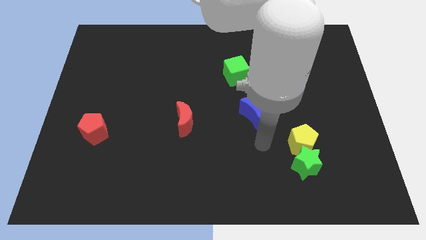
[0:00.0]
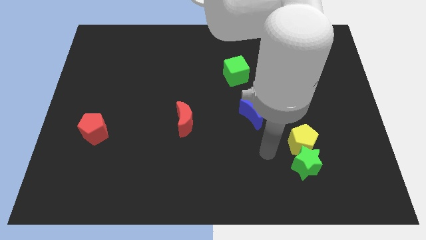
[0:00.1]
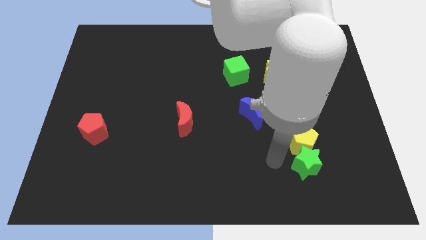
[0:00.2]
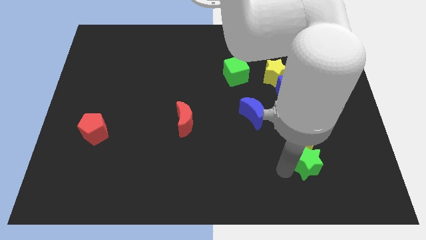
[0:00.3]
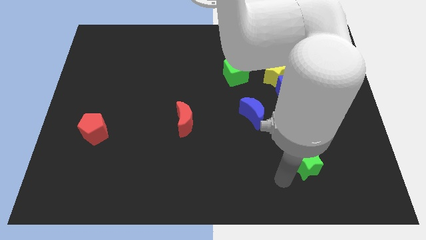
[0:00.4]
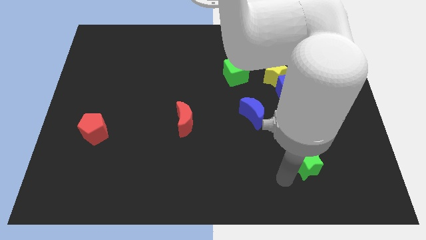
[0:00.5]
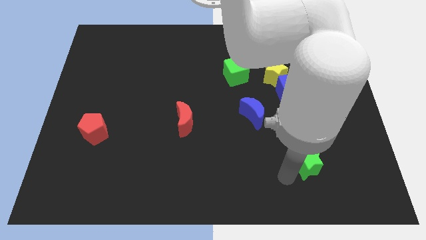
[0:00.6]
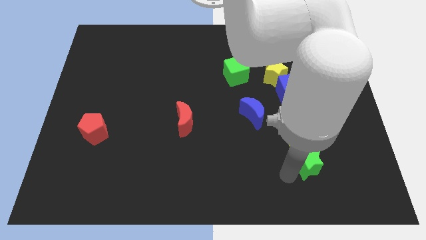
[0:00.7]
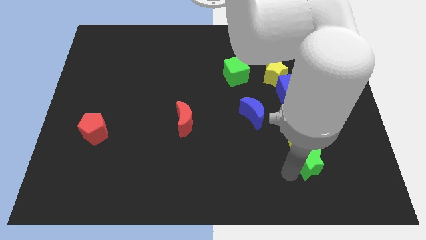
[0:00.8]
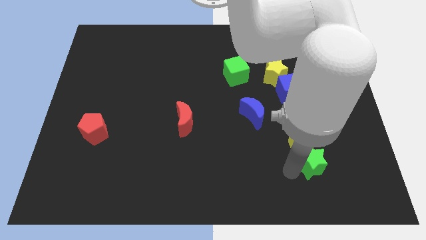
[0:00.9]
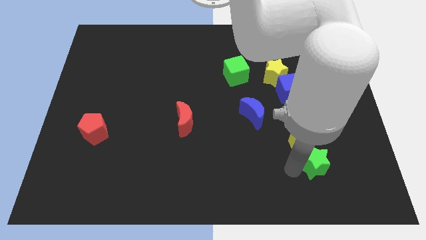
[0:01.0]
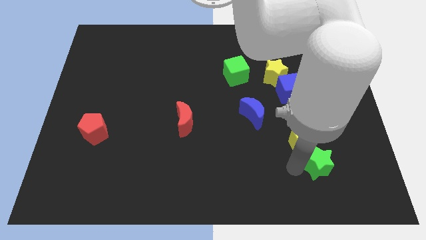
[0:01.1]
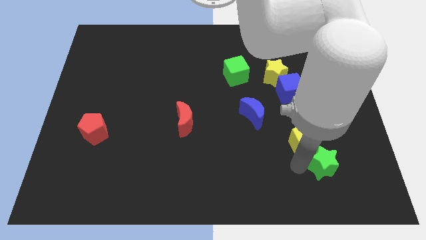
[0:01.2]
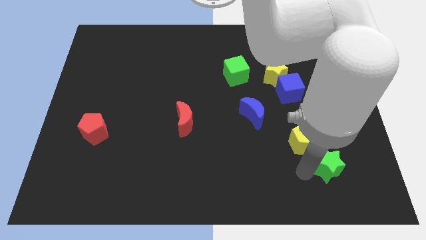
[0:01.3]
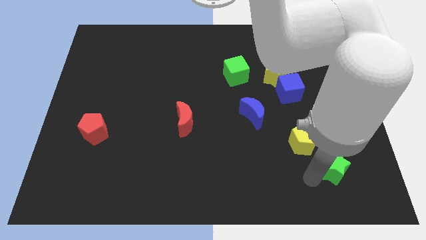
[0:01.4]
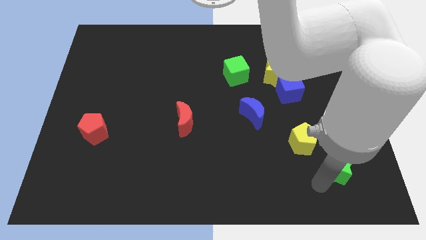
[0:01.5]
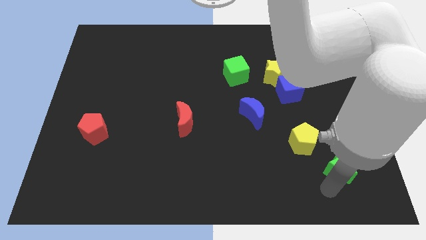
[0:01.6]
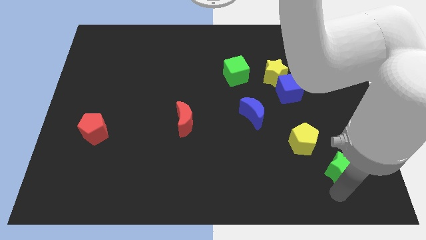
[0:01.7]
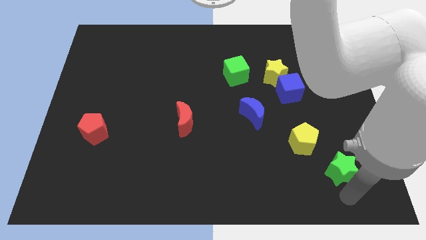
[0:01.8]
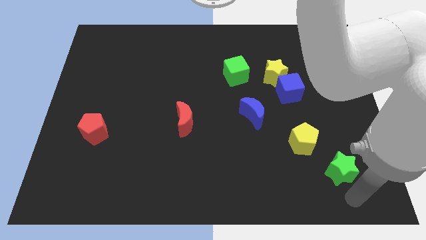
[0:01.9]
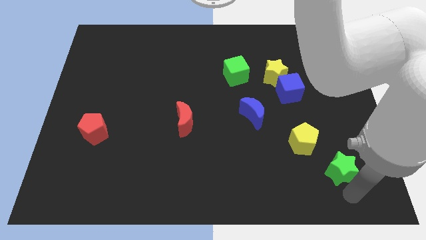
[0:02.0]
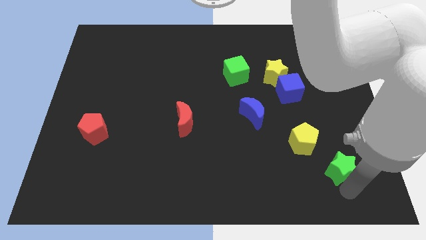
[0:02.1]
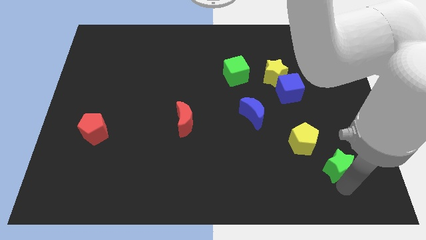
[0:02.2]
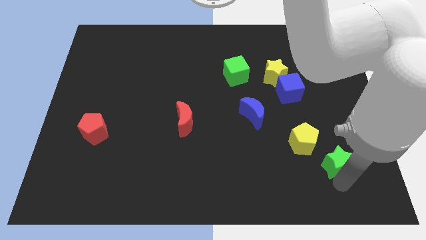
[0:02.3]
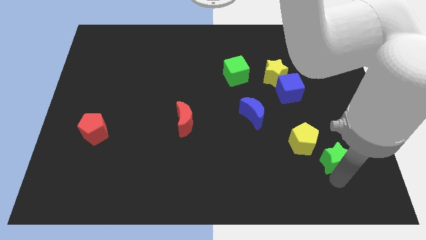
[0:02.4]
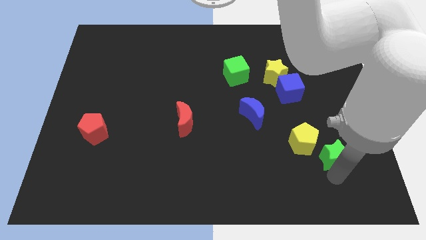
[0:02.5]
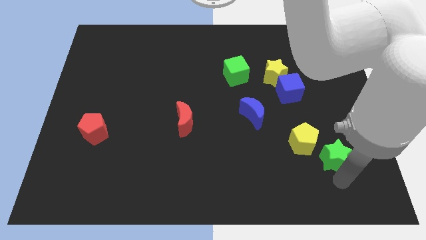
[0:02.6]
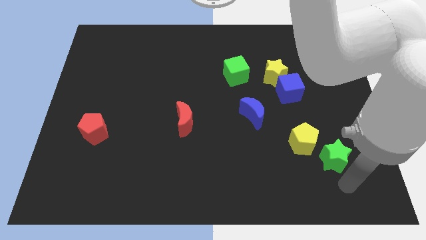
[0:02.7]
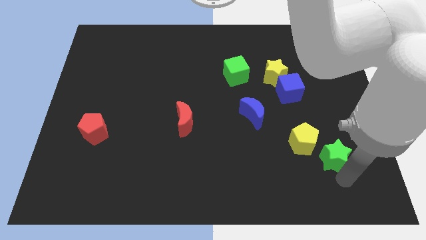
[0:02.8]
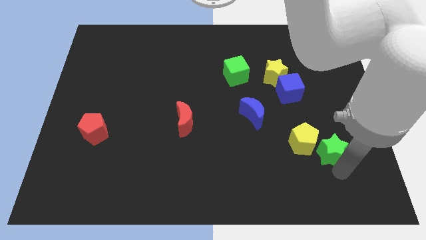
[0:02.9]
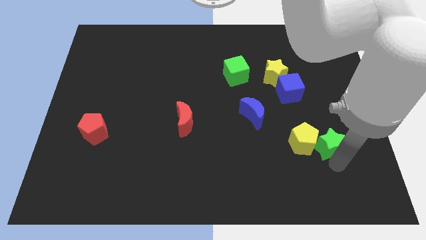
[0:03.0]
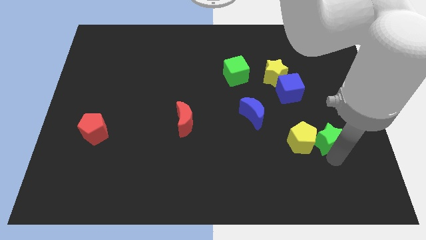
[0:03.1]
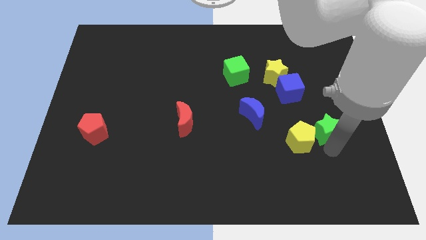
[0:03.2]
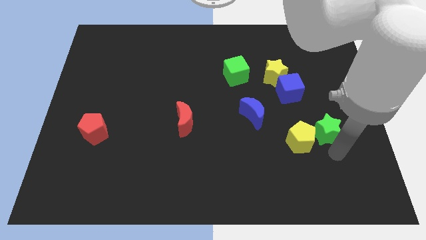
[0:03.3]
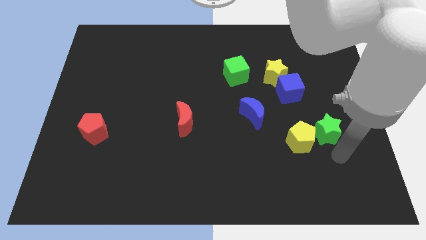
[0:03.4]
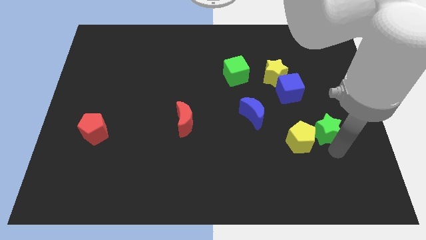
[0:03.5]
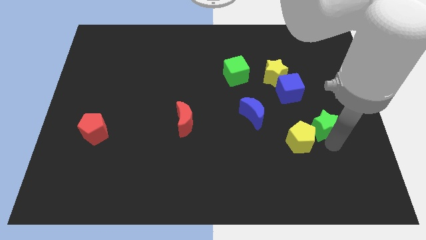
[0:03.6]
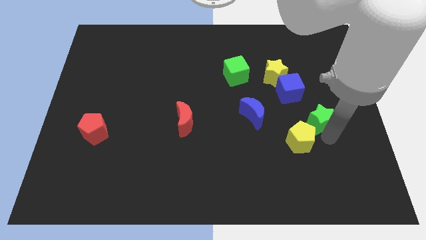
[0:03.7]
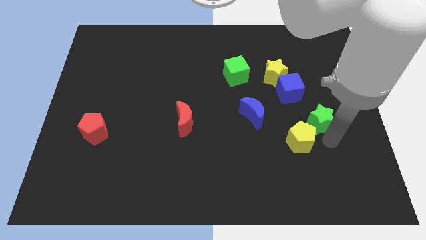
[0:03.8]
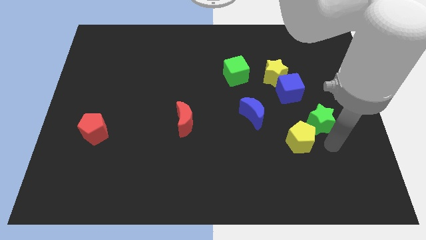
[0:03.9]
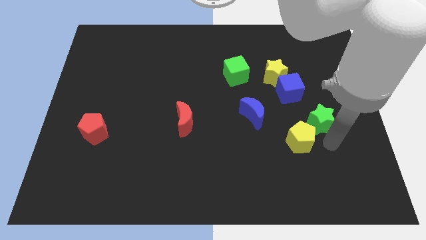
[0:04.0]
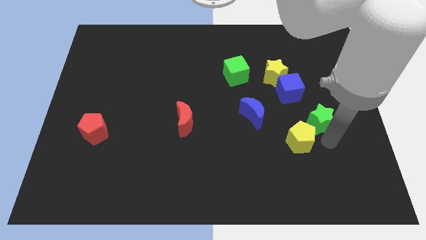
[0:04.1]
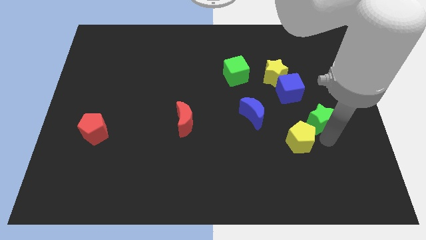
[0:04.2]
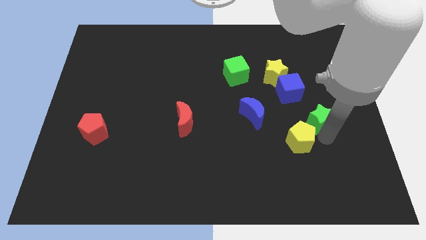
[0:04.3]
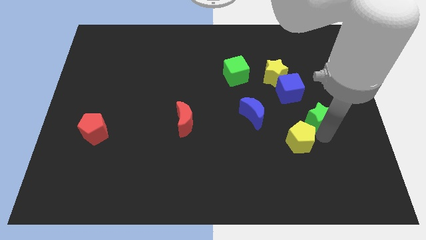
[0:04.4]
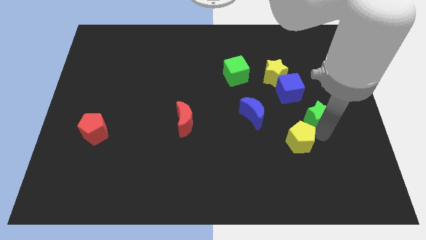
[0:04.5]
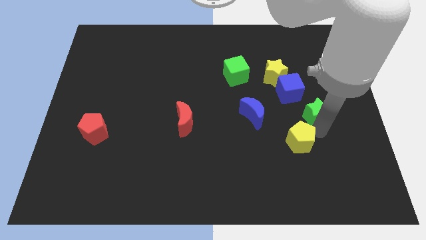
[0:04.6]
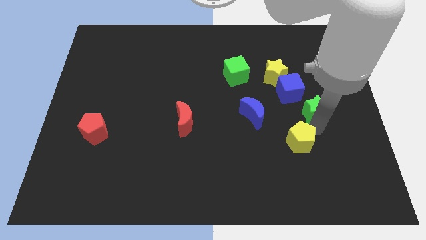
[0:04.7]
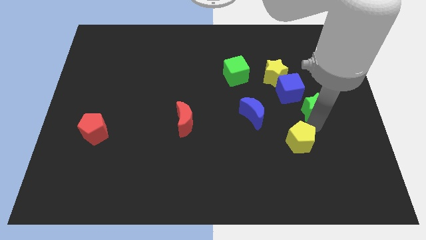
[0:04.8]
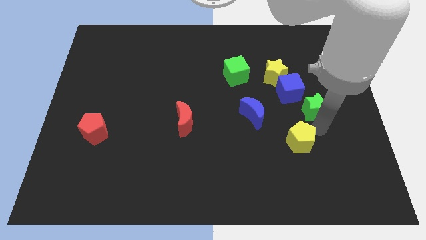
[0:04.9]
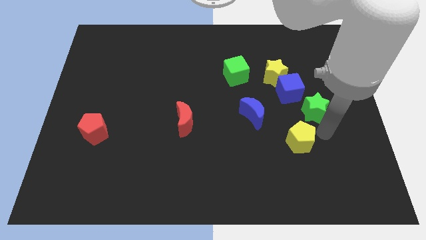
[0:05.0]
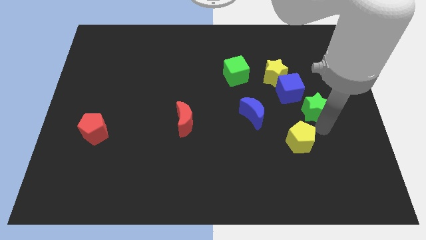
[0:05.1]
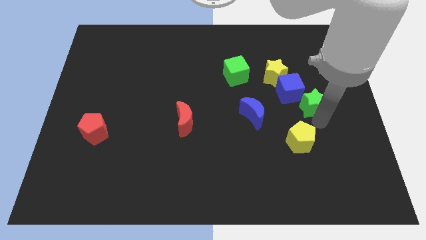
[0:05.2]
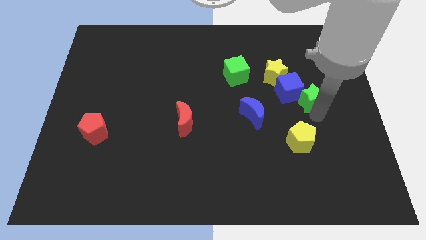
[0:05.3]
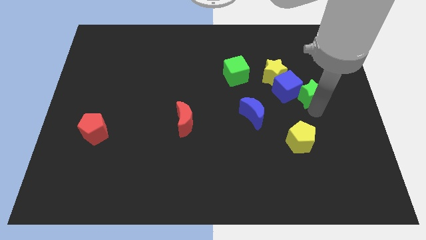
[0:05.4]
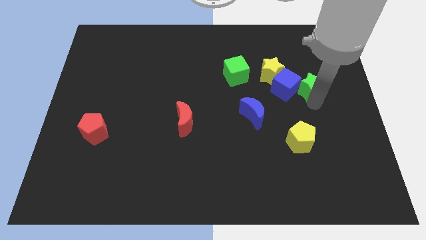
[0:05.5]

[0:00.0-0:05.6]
push the green star up

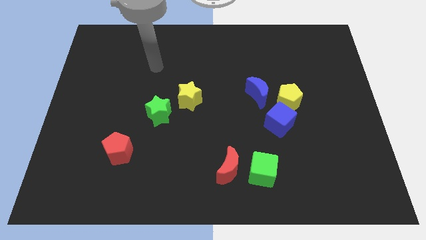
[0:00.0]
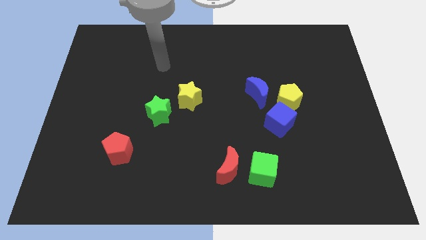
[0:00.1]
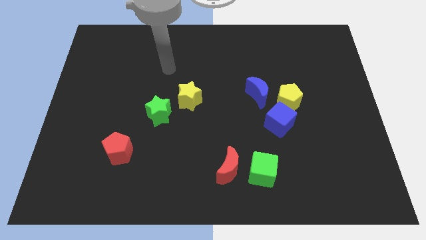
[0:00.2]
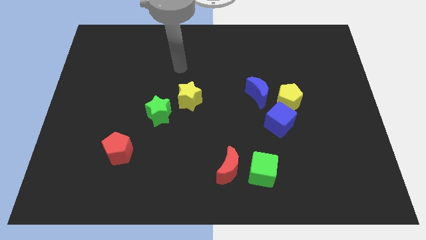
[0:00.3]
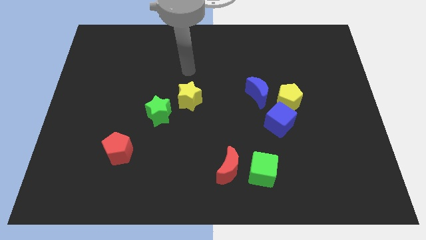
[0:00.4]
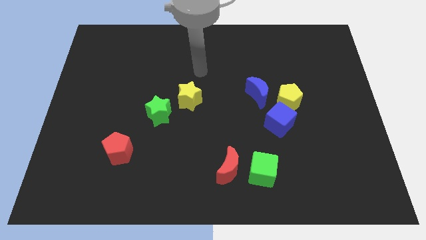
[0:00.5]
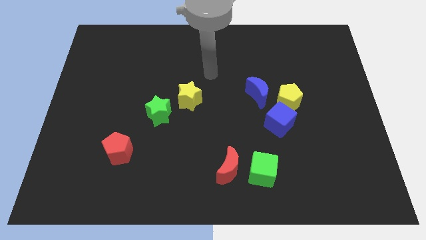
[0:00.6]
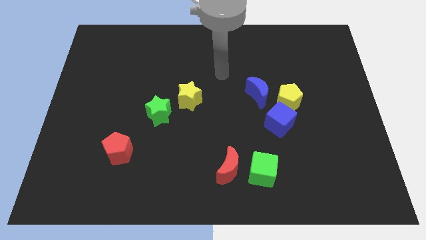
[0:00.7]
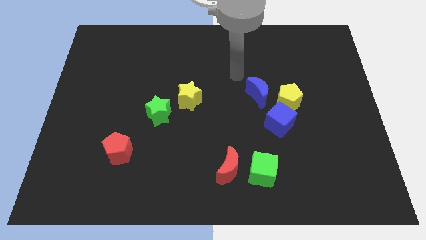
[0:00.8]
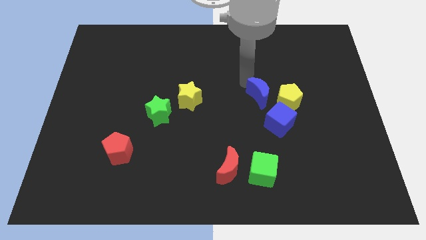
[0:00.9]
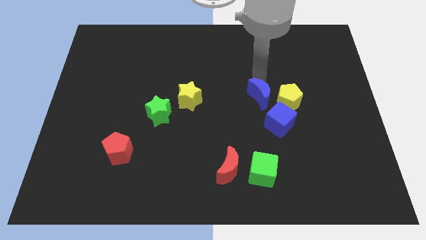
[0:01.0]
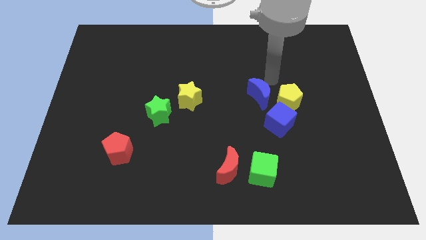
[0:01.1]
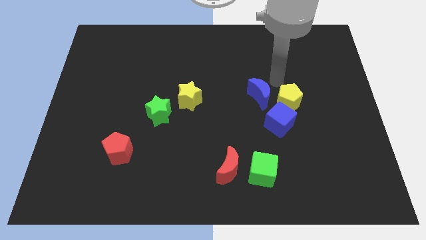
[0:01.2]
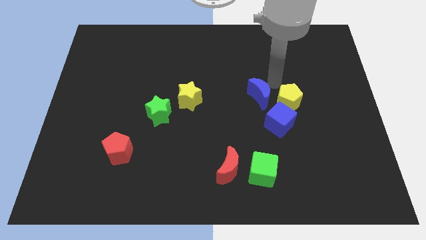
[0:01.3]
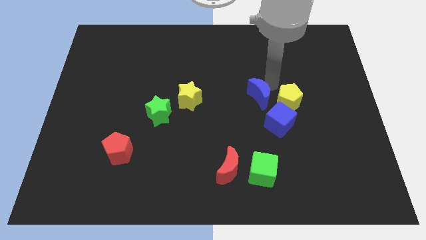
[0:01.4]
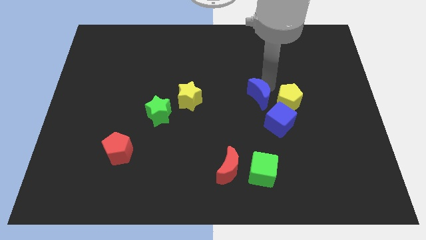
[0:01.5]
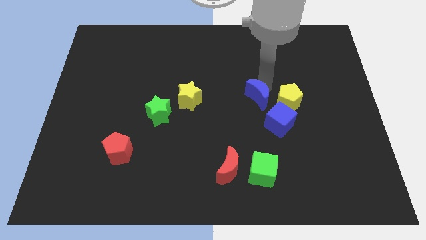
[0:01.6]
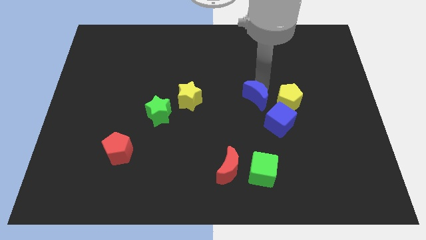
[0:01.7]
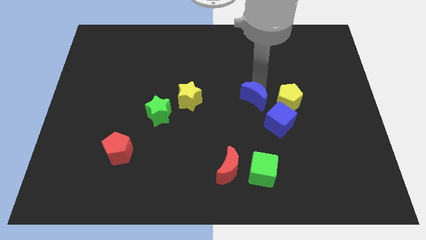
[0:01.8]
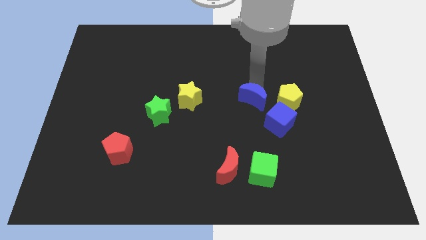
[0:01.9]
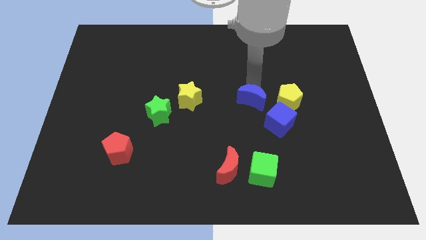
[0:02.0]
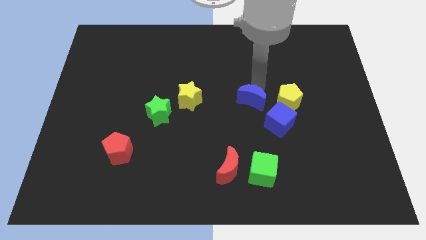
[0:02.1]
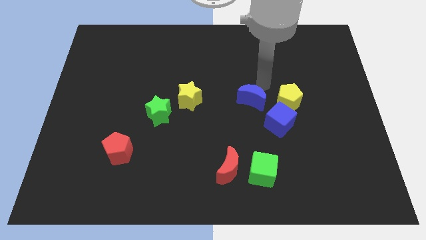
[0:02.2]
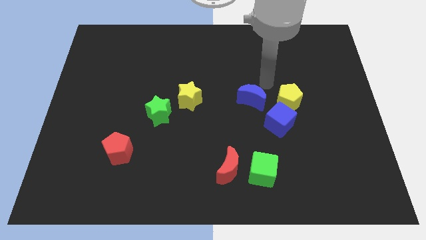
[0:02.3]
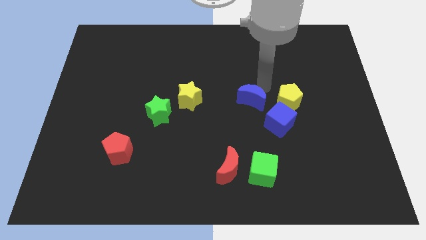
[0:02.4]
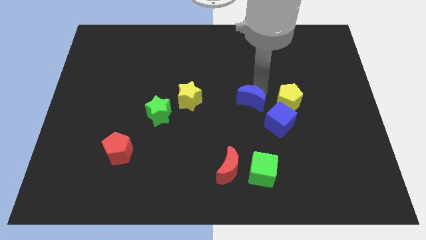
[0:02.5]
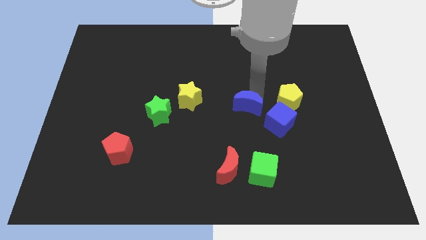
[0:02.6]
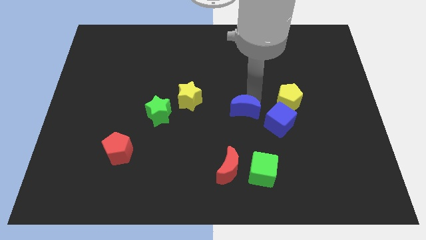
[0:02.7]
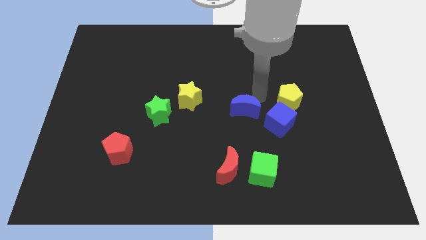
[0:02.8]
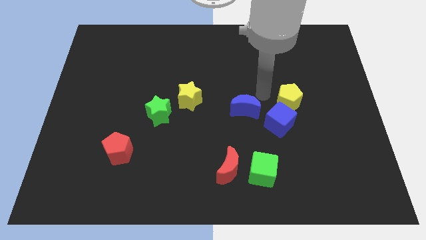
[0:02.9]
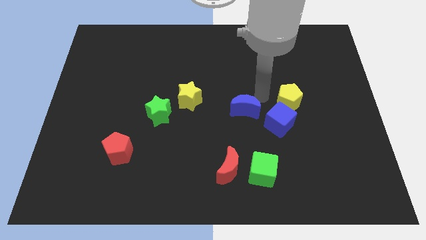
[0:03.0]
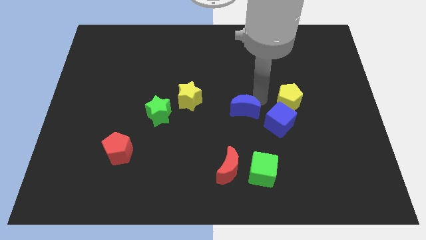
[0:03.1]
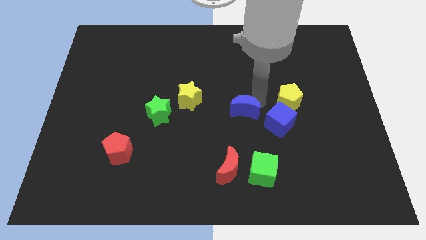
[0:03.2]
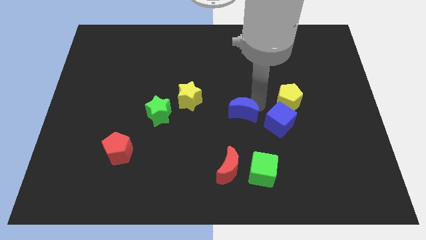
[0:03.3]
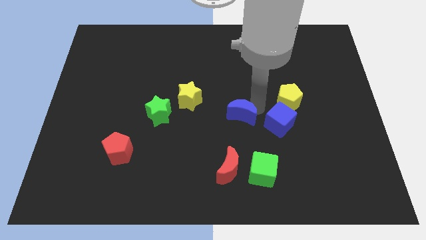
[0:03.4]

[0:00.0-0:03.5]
slightly slide the blue moon downwards and then to the left
